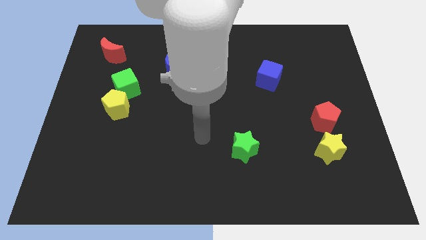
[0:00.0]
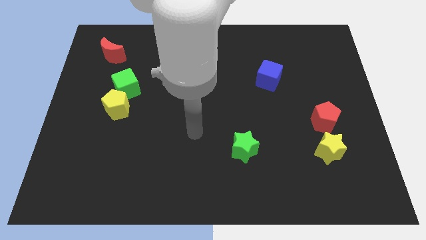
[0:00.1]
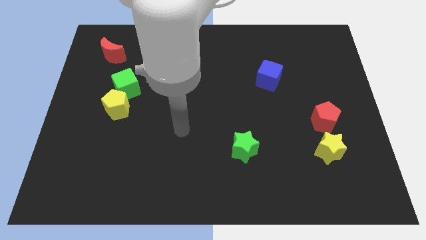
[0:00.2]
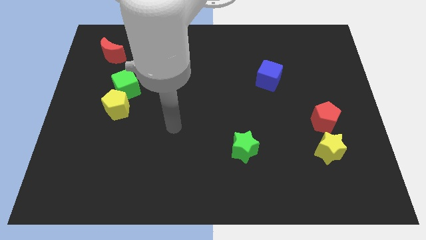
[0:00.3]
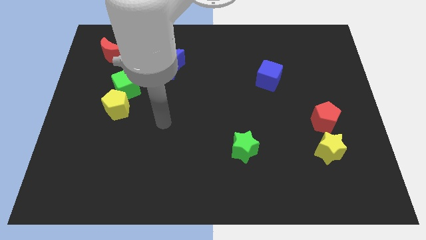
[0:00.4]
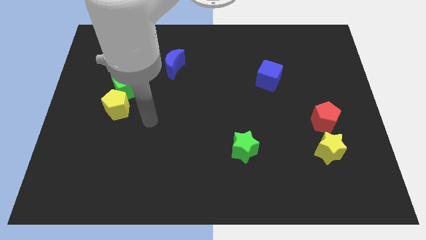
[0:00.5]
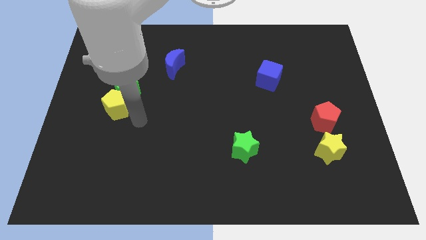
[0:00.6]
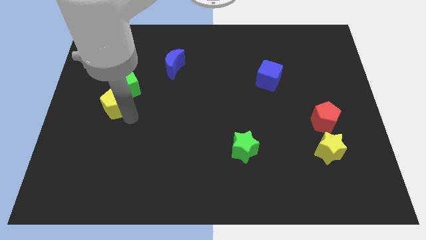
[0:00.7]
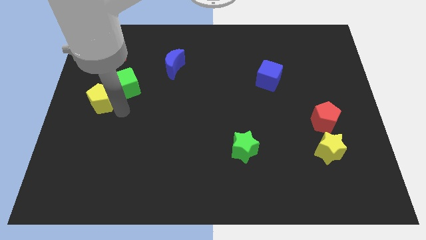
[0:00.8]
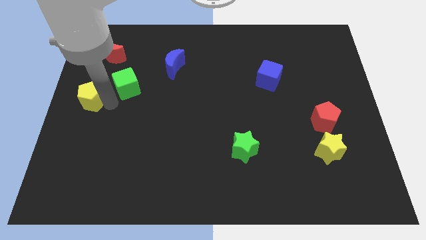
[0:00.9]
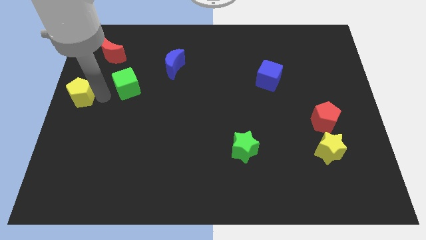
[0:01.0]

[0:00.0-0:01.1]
pull the green cube apart from the yellow pentagon

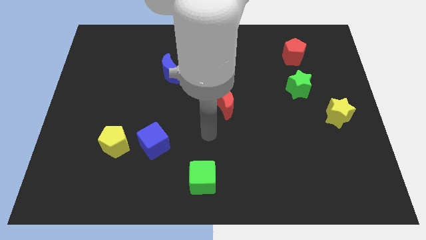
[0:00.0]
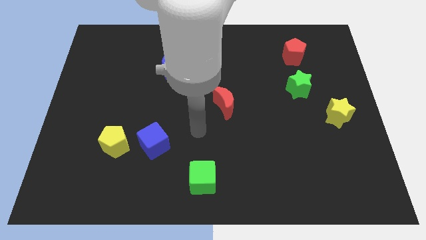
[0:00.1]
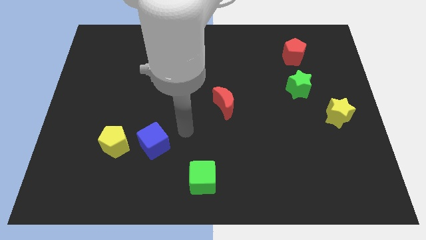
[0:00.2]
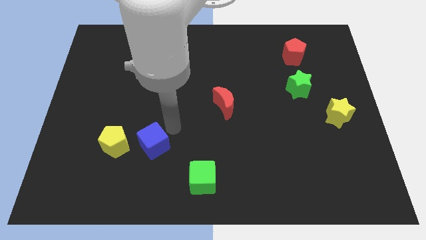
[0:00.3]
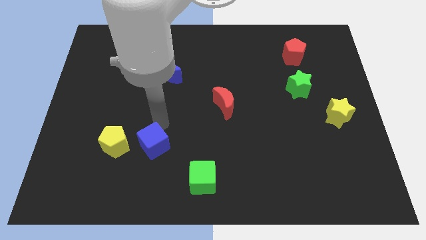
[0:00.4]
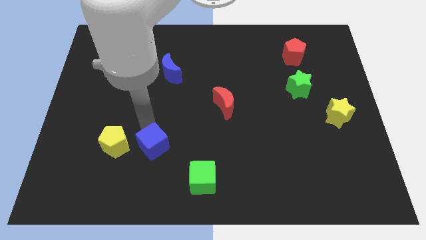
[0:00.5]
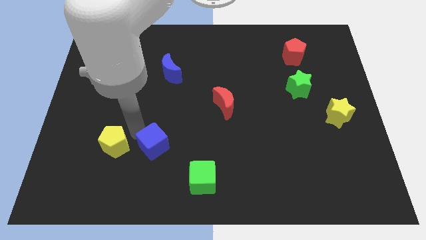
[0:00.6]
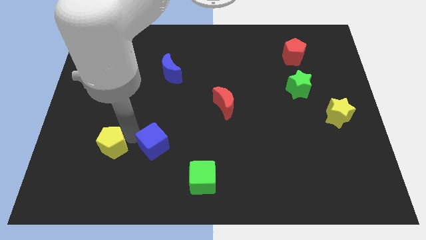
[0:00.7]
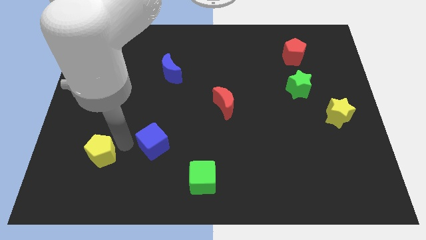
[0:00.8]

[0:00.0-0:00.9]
separate the blue cube from the yellow pentagon

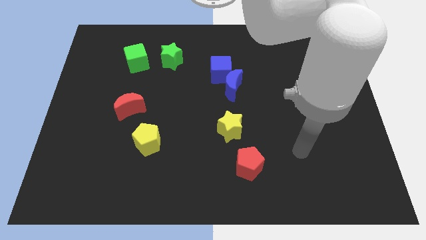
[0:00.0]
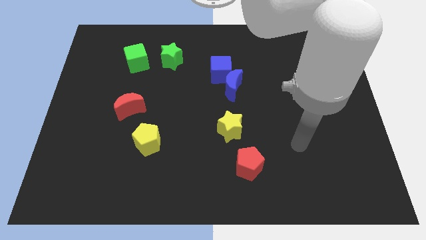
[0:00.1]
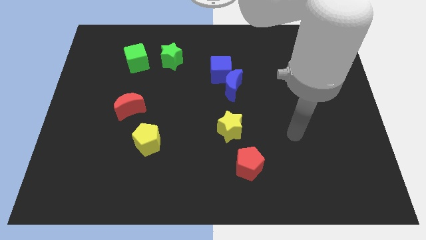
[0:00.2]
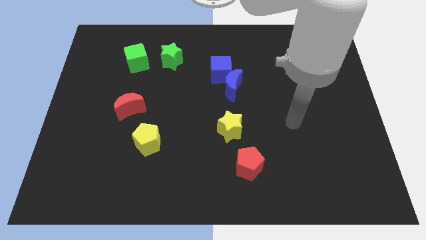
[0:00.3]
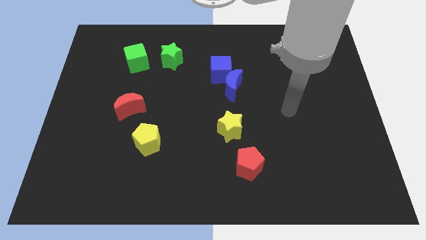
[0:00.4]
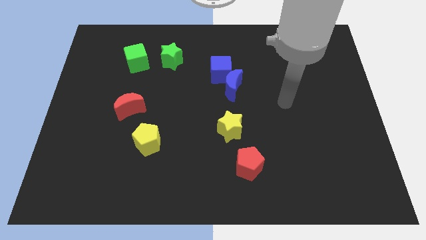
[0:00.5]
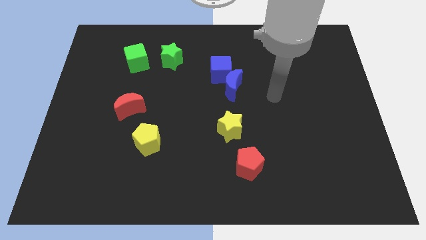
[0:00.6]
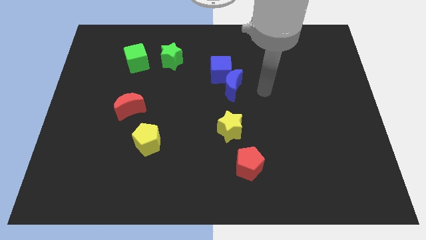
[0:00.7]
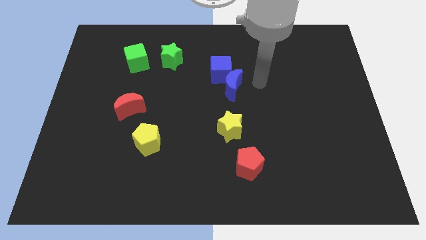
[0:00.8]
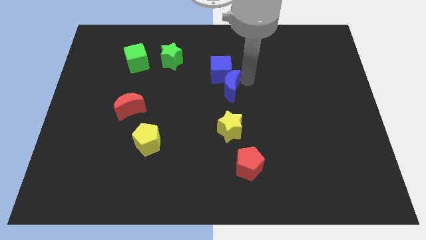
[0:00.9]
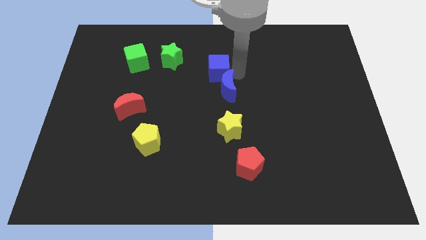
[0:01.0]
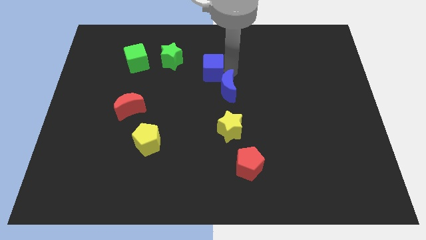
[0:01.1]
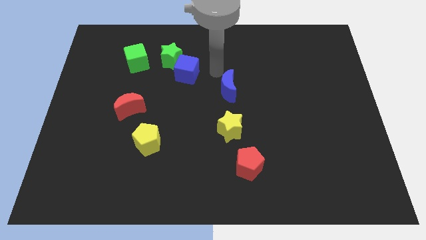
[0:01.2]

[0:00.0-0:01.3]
separate the blue moon from the blue cube

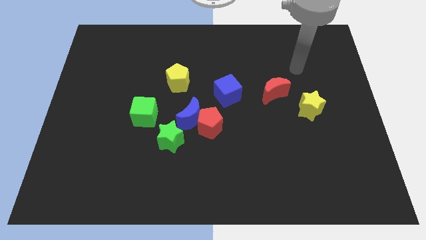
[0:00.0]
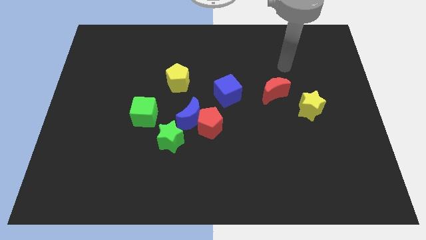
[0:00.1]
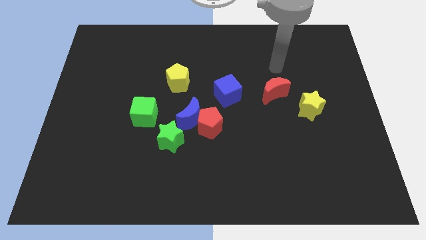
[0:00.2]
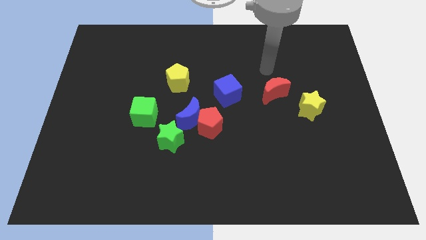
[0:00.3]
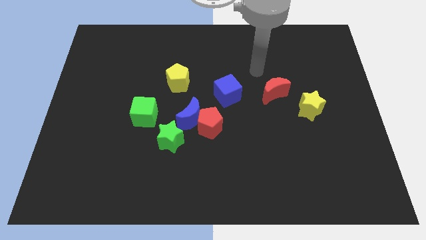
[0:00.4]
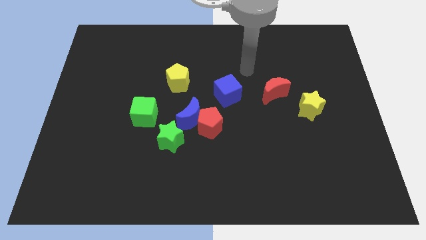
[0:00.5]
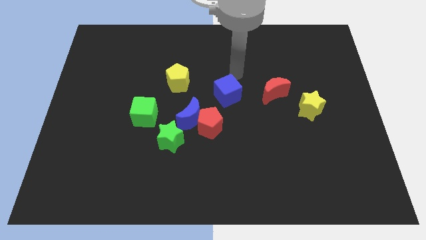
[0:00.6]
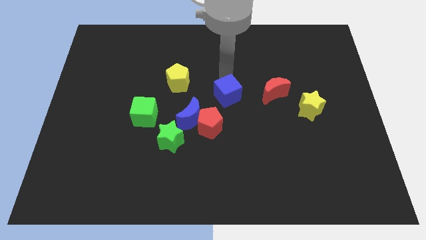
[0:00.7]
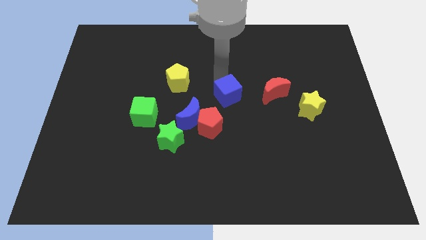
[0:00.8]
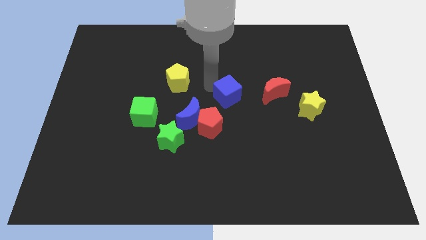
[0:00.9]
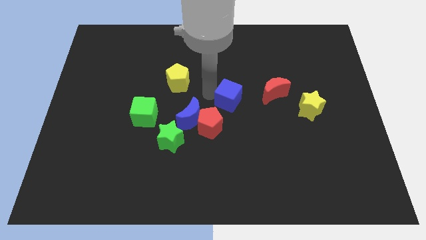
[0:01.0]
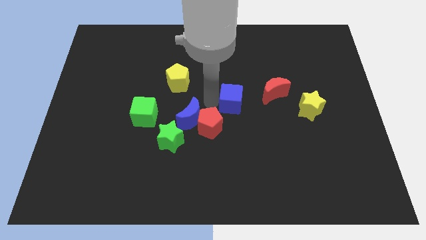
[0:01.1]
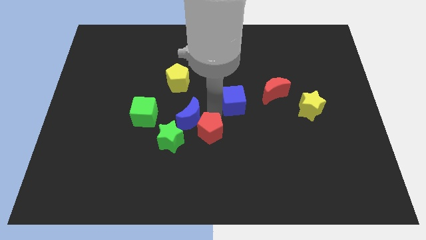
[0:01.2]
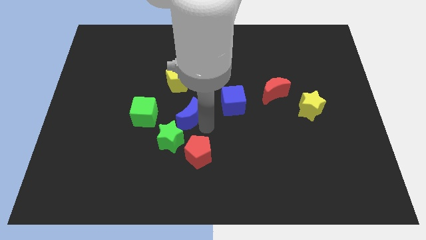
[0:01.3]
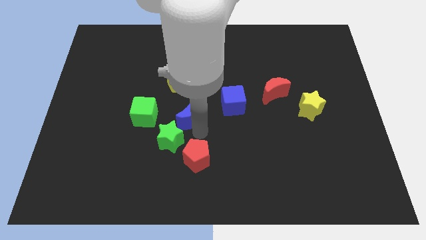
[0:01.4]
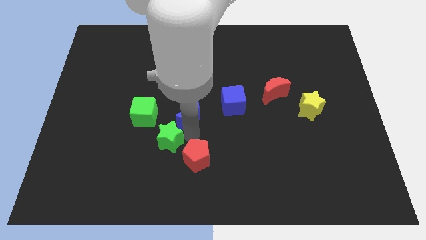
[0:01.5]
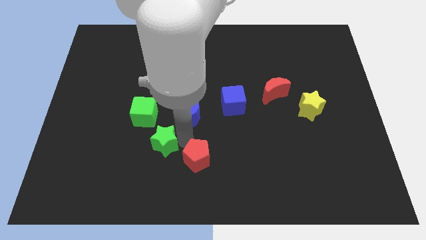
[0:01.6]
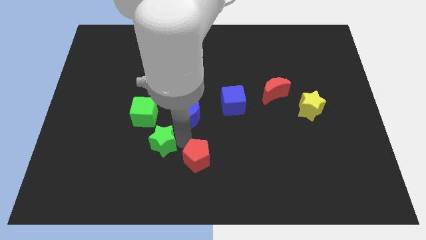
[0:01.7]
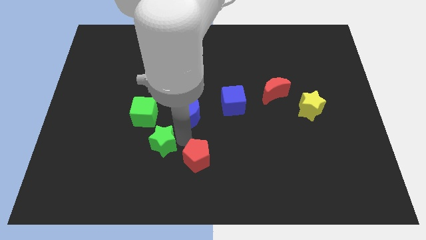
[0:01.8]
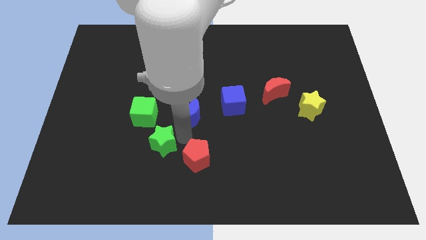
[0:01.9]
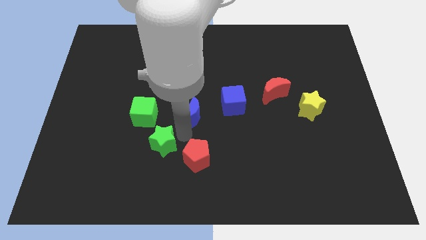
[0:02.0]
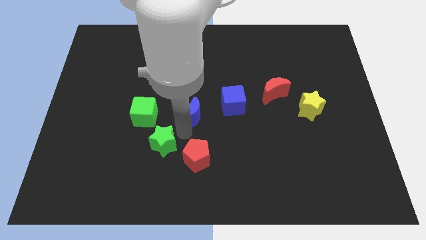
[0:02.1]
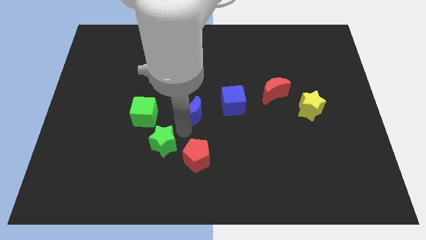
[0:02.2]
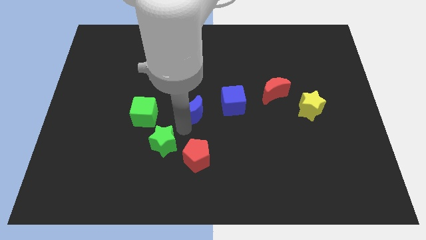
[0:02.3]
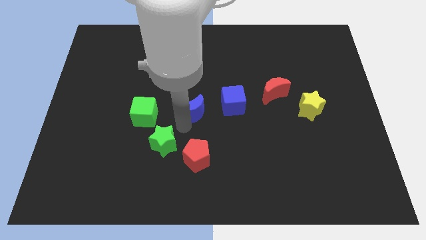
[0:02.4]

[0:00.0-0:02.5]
separate the blue moon from the red pentagon and green star

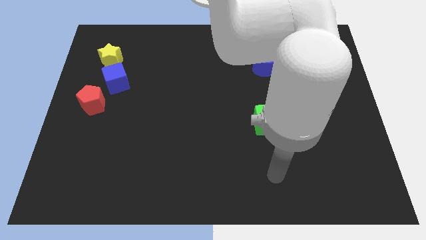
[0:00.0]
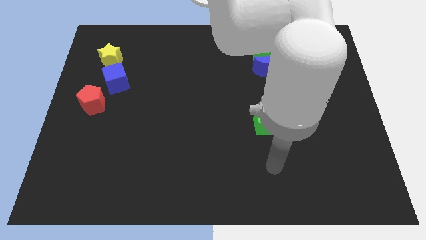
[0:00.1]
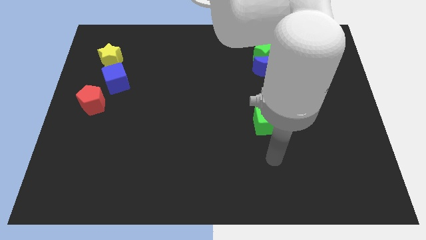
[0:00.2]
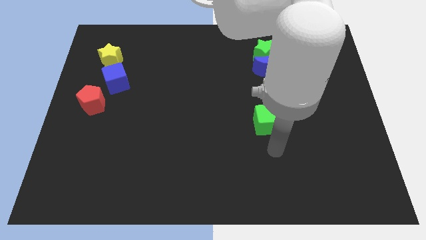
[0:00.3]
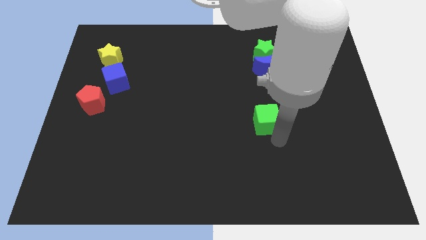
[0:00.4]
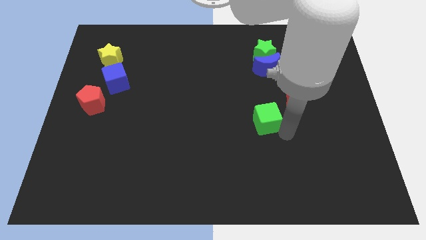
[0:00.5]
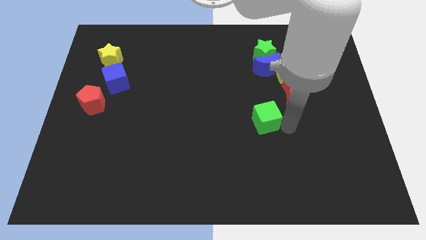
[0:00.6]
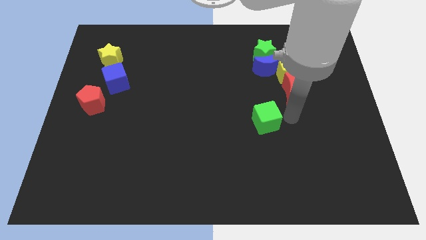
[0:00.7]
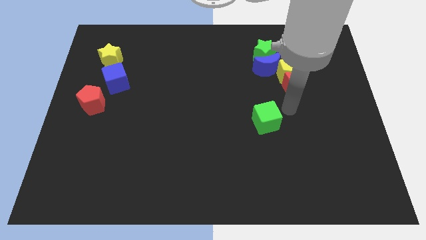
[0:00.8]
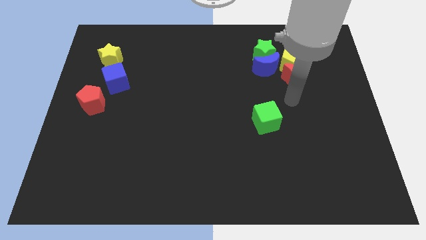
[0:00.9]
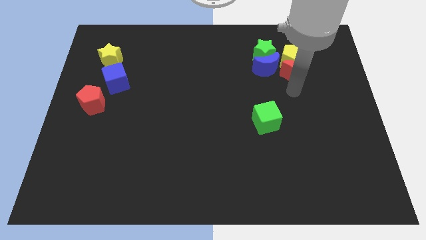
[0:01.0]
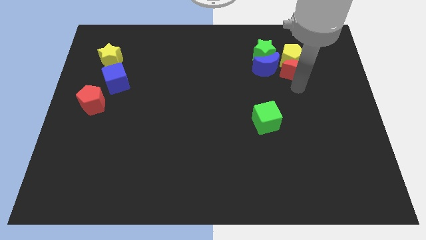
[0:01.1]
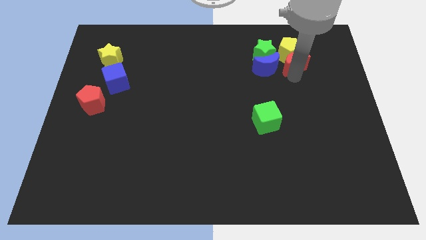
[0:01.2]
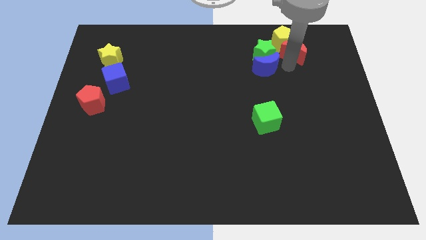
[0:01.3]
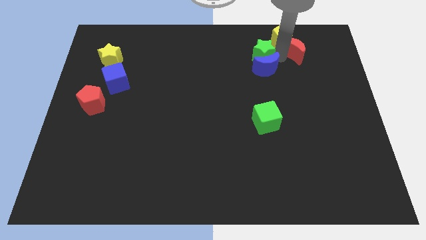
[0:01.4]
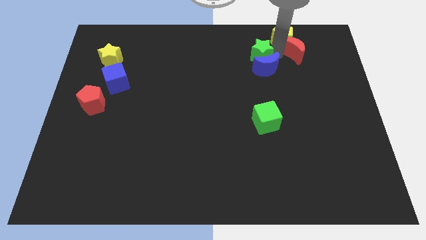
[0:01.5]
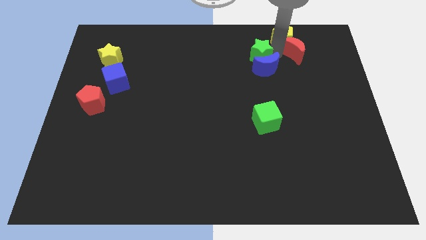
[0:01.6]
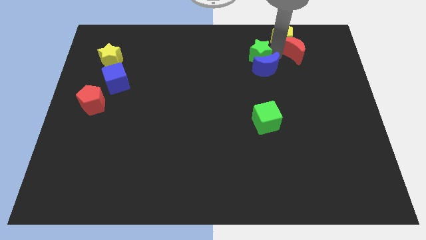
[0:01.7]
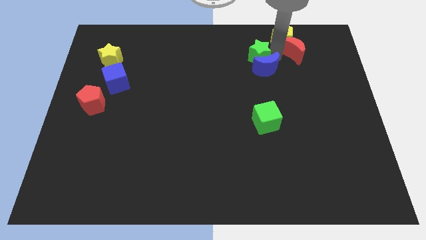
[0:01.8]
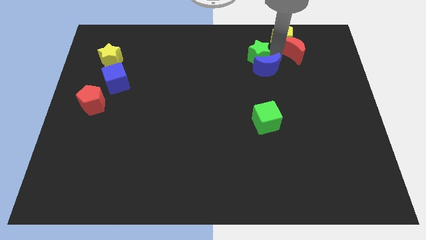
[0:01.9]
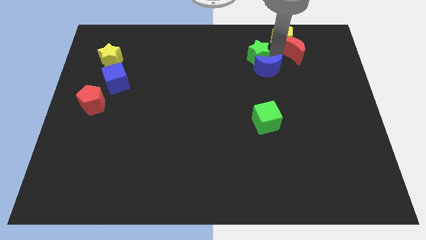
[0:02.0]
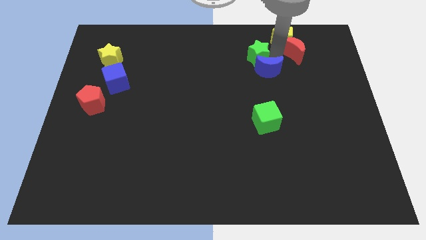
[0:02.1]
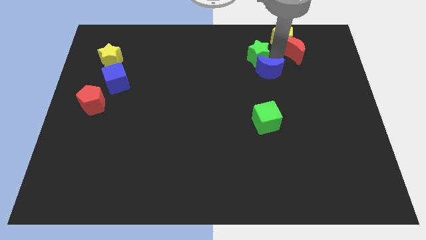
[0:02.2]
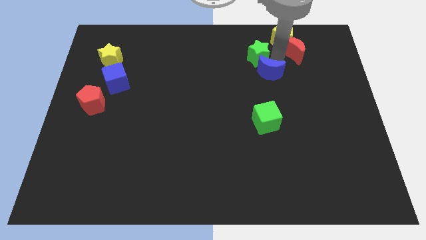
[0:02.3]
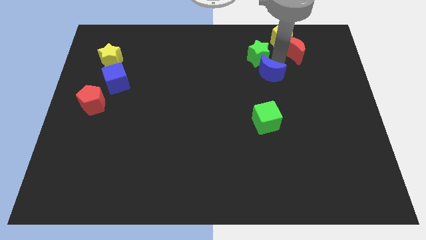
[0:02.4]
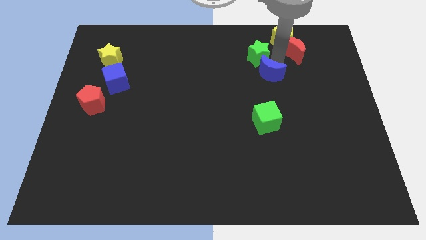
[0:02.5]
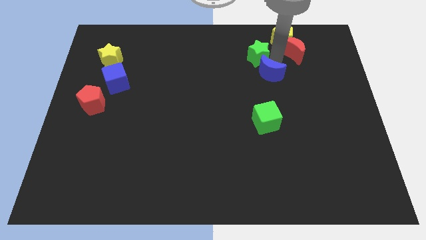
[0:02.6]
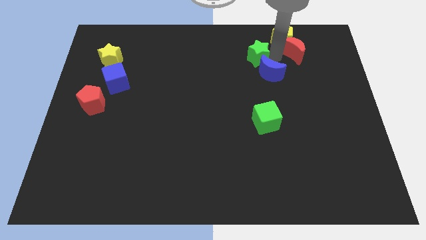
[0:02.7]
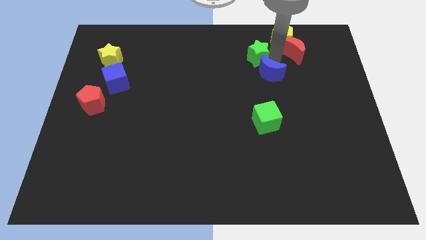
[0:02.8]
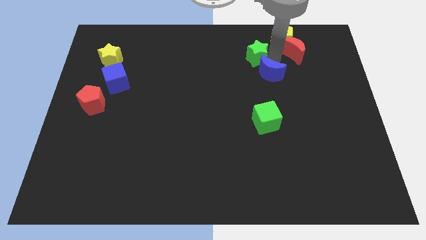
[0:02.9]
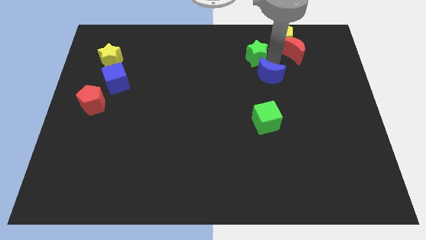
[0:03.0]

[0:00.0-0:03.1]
separate the blue moon from the green star, yellow pentagon, and red moon

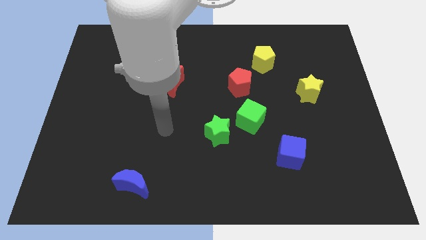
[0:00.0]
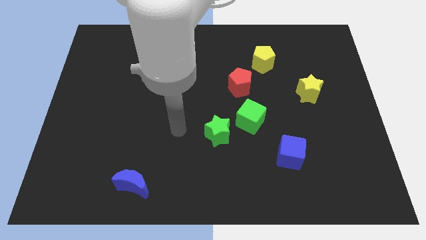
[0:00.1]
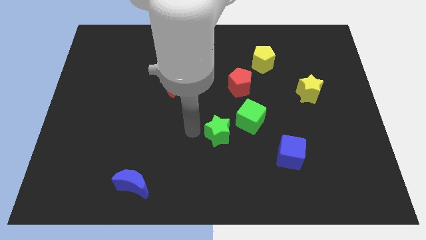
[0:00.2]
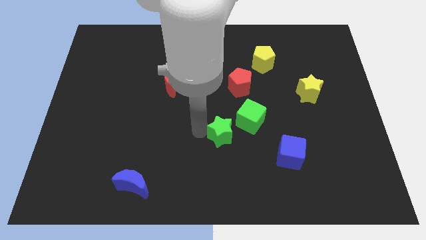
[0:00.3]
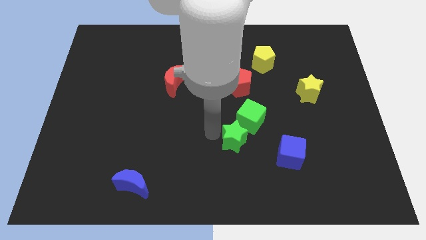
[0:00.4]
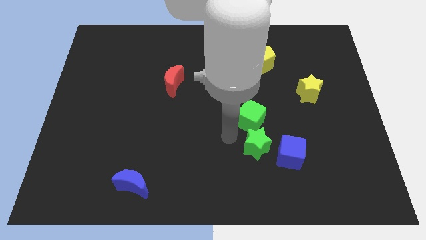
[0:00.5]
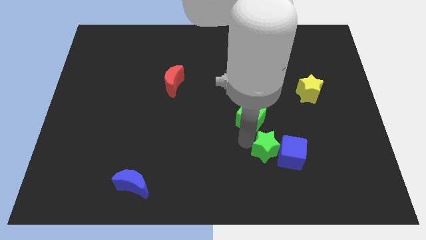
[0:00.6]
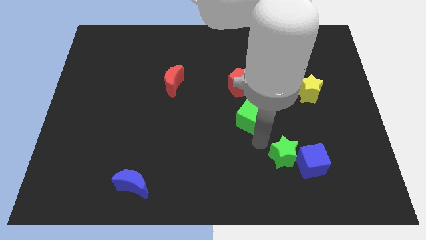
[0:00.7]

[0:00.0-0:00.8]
move the green cube away from the green star
